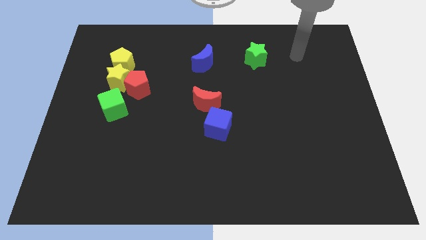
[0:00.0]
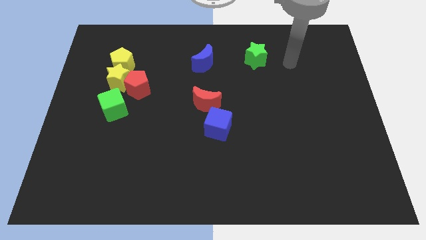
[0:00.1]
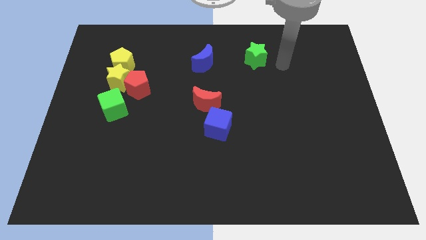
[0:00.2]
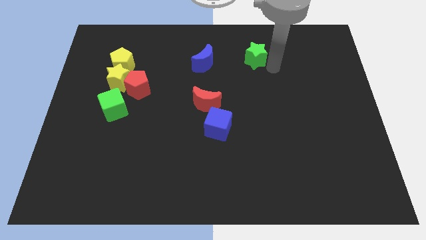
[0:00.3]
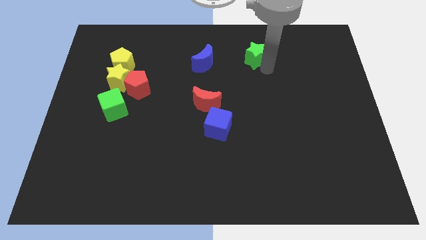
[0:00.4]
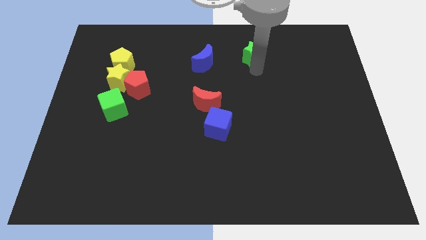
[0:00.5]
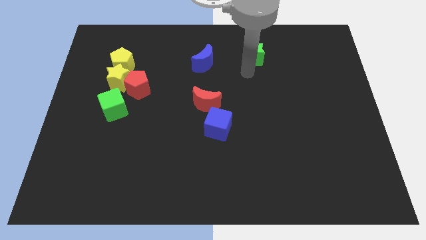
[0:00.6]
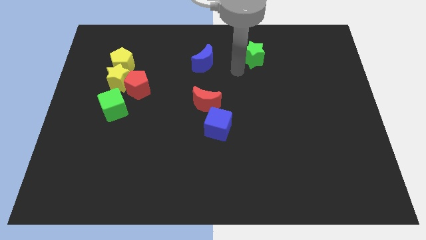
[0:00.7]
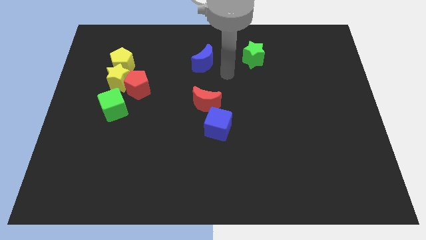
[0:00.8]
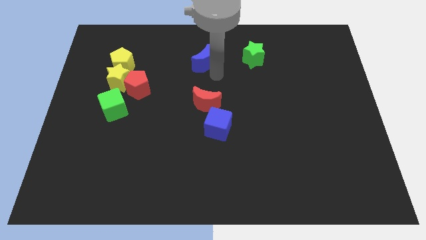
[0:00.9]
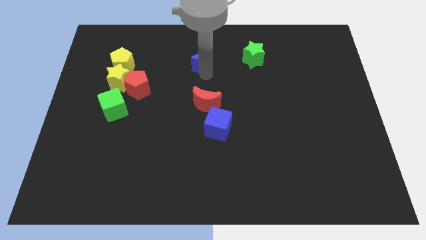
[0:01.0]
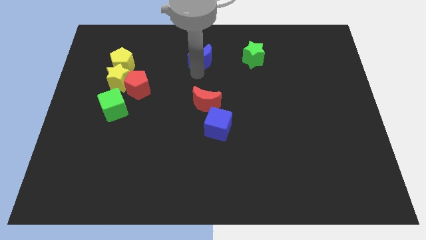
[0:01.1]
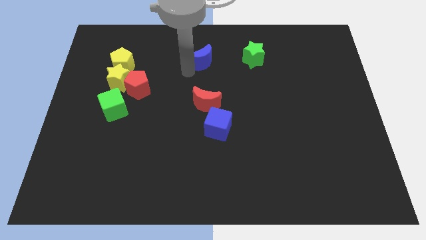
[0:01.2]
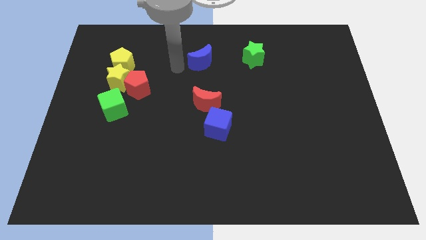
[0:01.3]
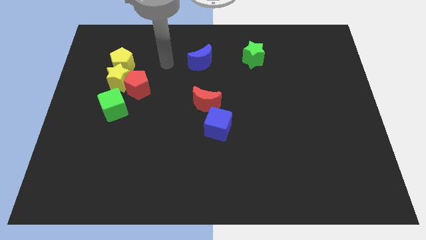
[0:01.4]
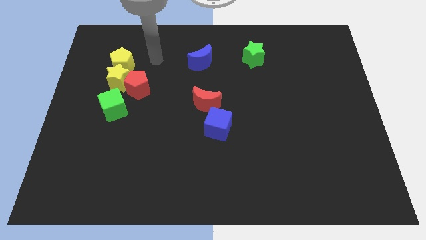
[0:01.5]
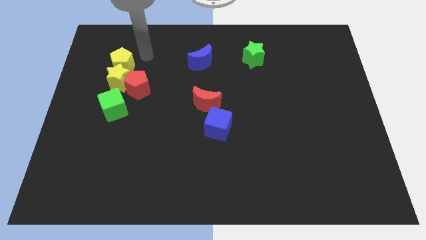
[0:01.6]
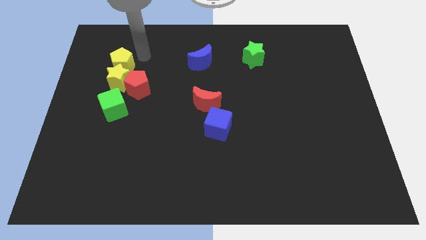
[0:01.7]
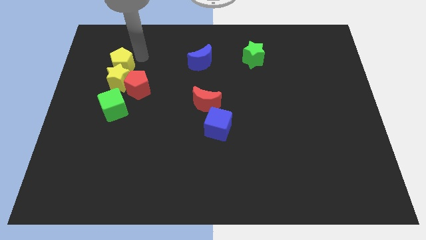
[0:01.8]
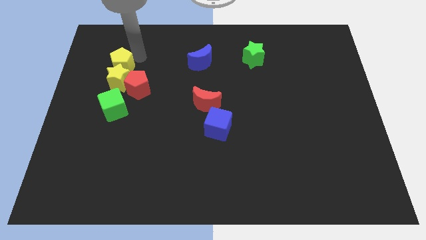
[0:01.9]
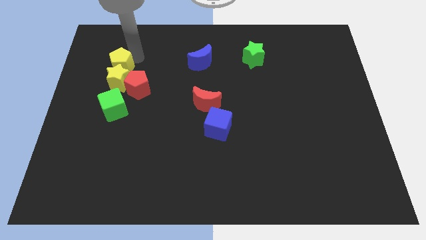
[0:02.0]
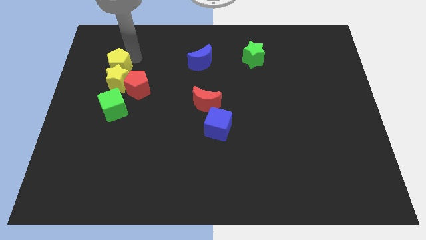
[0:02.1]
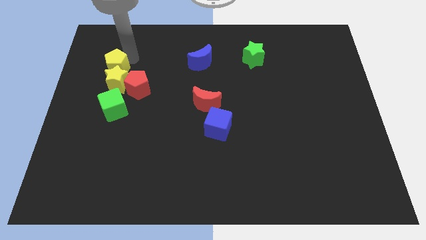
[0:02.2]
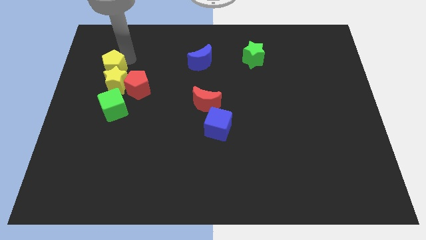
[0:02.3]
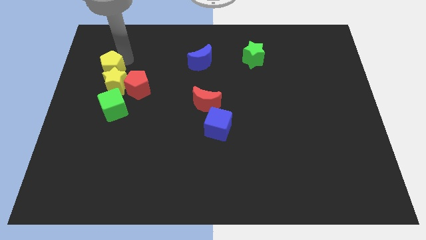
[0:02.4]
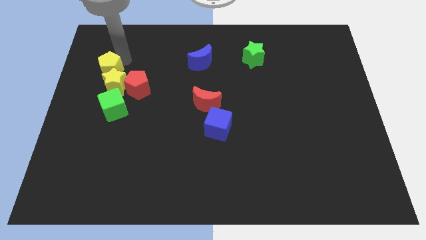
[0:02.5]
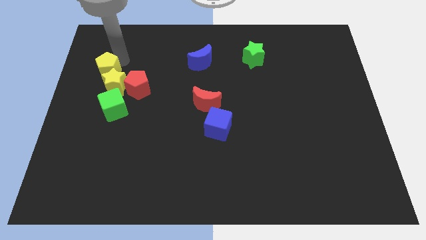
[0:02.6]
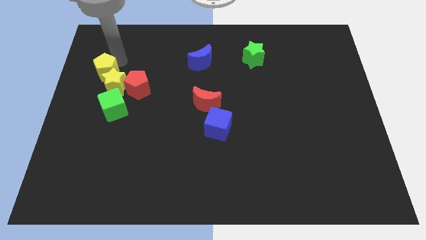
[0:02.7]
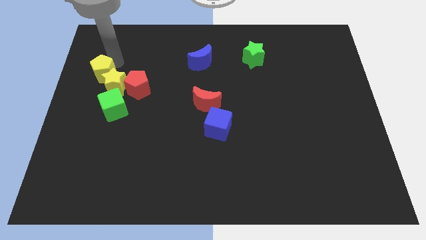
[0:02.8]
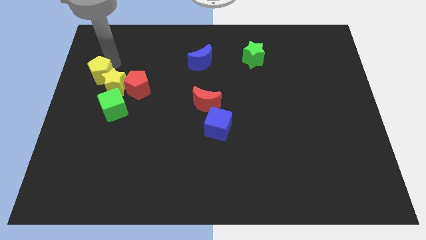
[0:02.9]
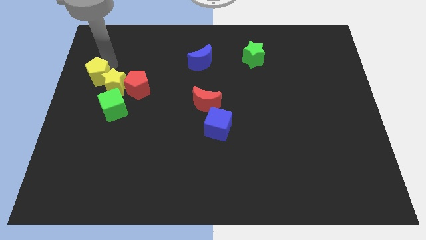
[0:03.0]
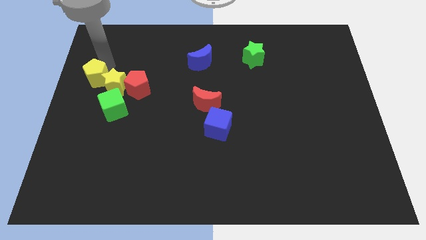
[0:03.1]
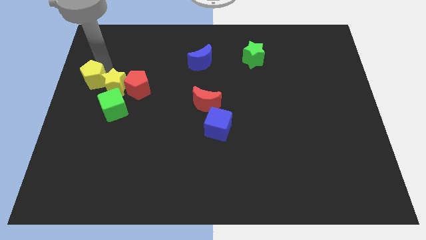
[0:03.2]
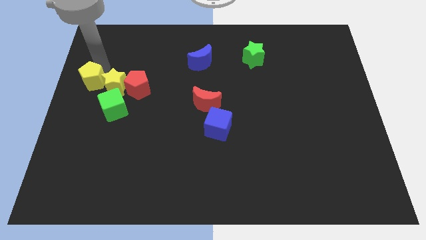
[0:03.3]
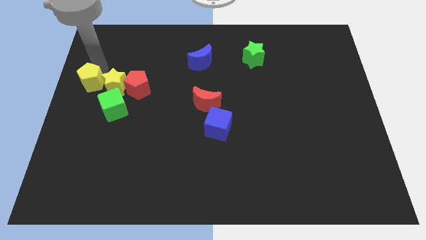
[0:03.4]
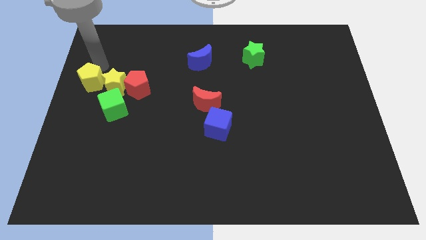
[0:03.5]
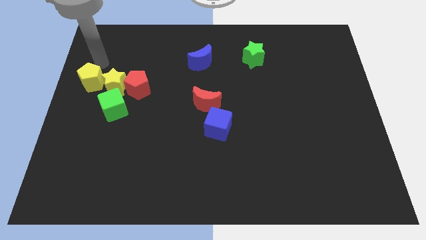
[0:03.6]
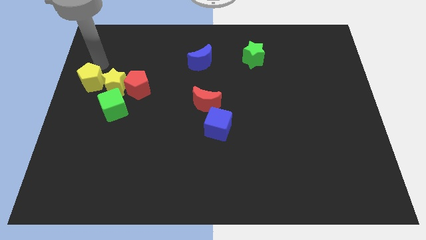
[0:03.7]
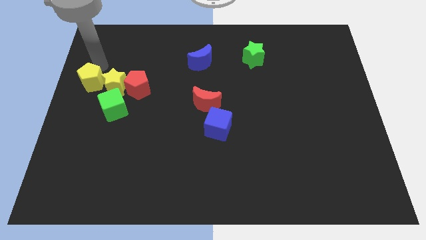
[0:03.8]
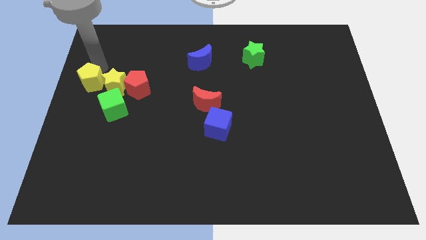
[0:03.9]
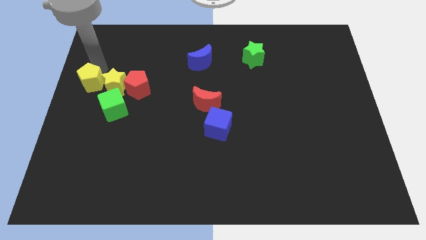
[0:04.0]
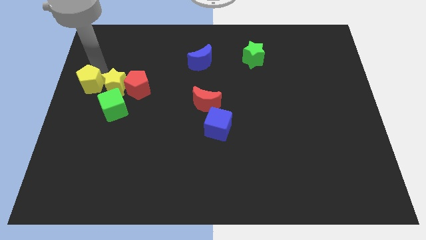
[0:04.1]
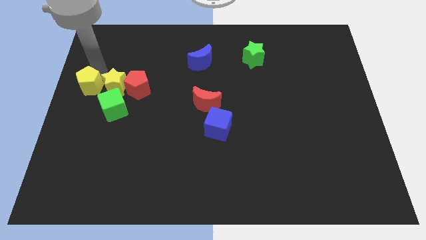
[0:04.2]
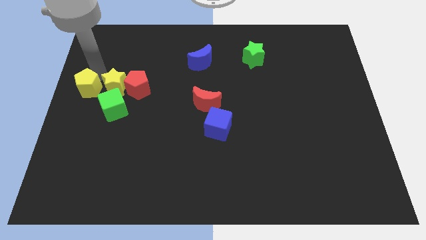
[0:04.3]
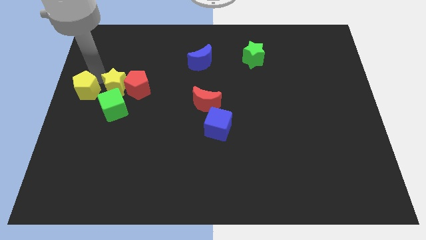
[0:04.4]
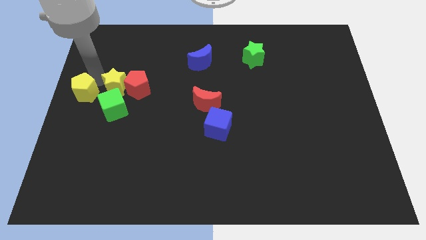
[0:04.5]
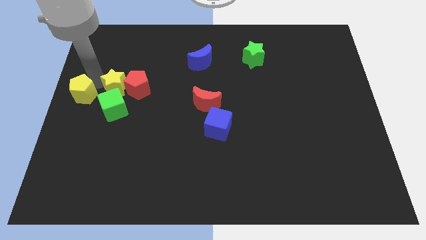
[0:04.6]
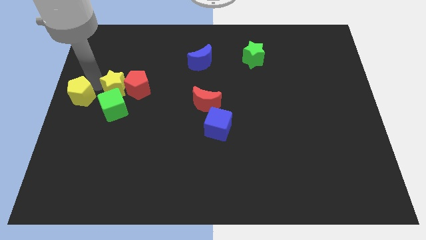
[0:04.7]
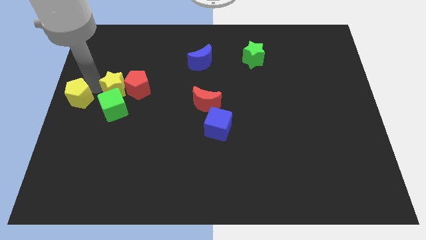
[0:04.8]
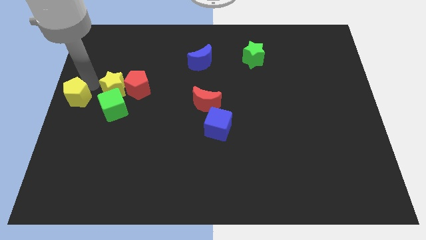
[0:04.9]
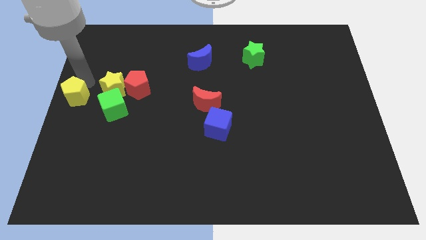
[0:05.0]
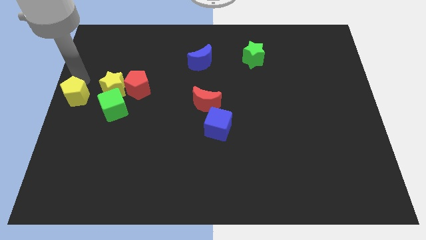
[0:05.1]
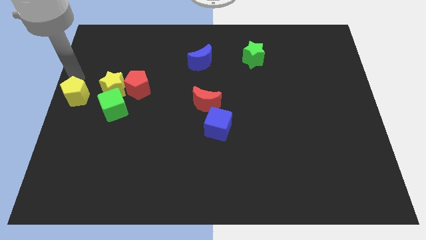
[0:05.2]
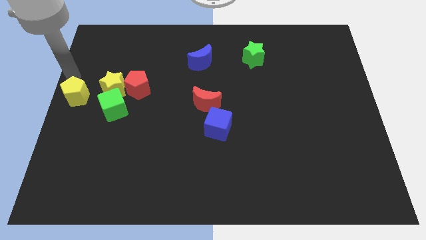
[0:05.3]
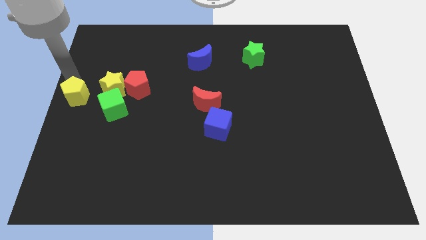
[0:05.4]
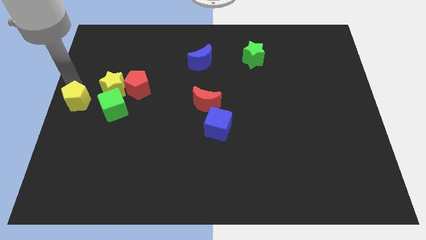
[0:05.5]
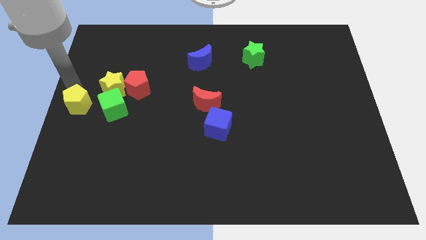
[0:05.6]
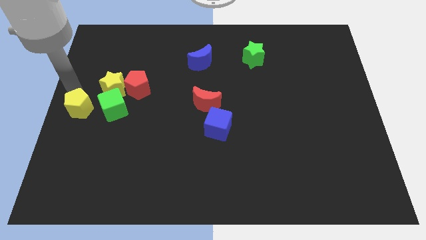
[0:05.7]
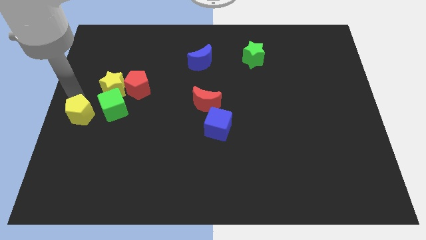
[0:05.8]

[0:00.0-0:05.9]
push the yellow pentagon to the bottom left side of the green cube

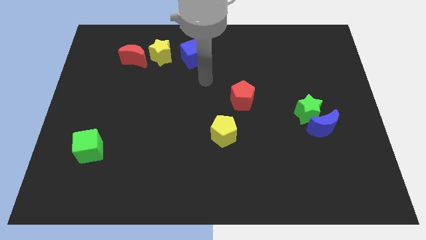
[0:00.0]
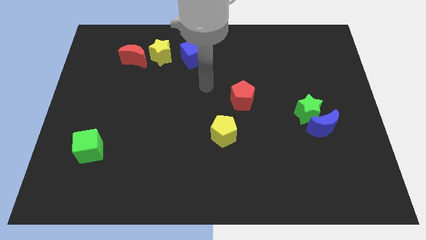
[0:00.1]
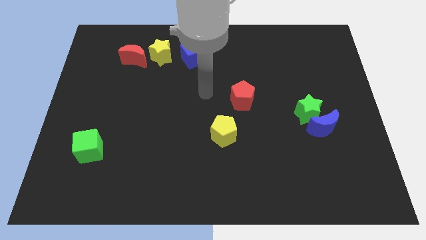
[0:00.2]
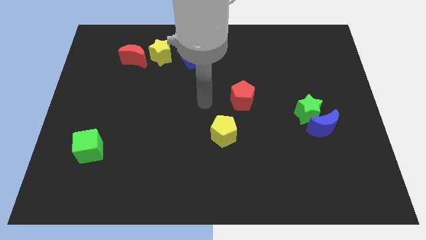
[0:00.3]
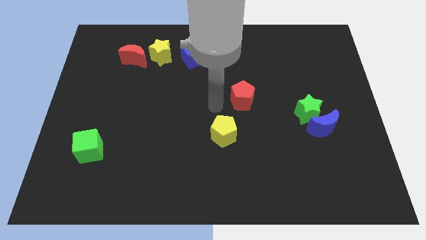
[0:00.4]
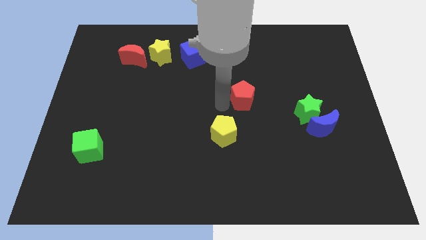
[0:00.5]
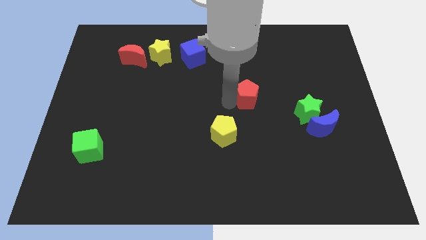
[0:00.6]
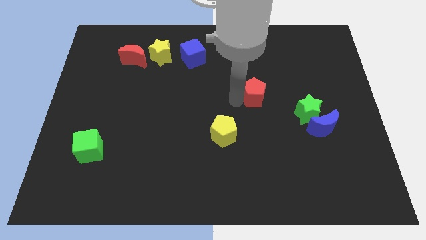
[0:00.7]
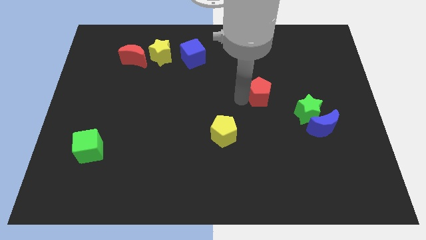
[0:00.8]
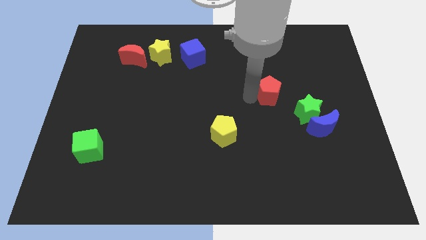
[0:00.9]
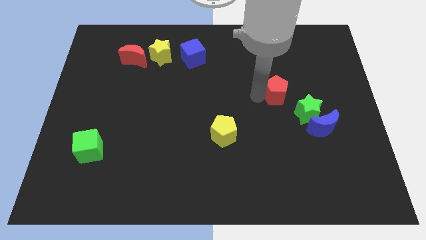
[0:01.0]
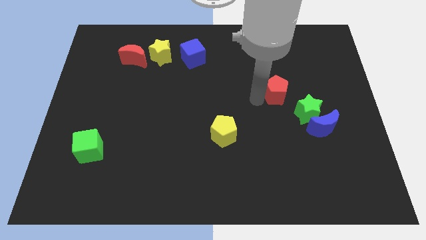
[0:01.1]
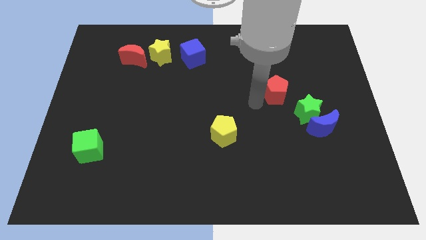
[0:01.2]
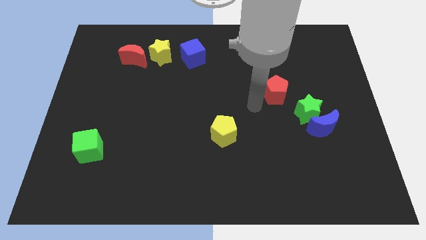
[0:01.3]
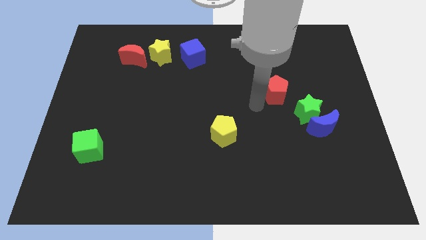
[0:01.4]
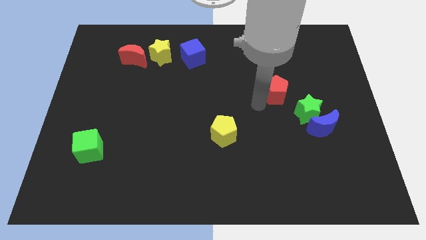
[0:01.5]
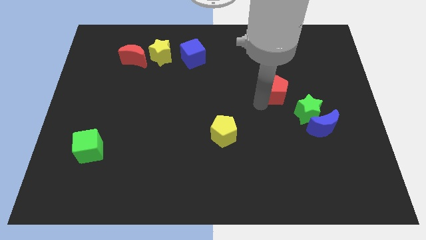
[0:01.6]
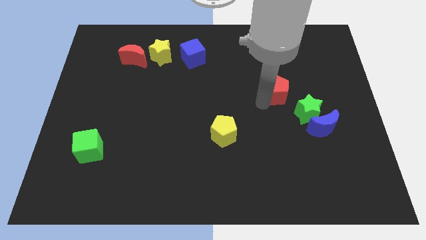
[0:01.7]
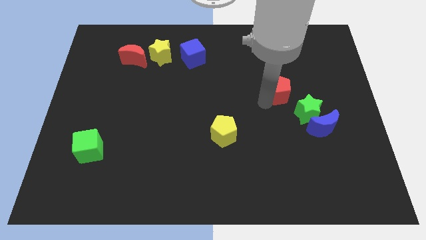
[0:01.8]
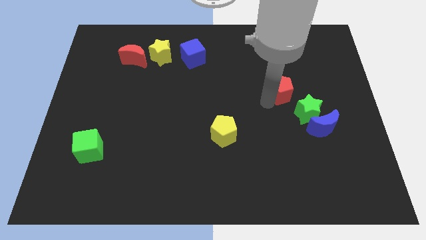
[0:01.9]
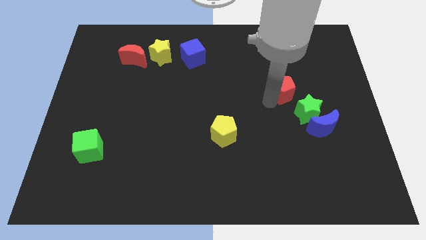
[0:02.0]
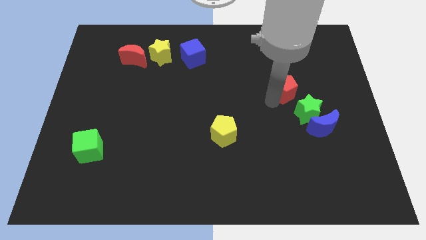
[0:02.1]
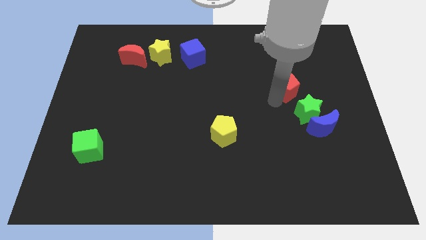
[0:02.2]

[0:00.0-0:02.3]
move the red pentagon to the top side of the green star
